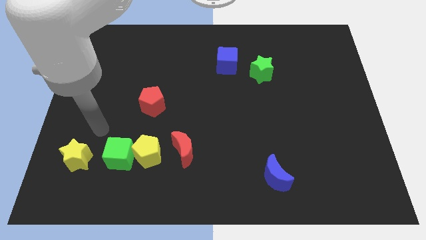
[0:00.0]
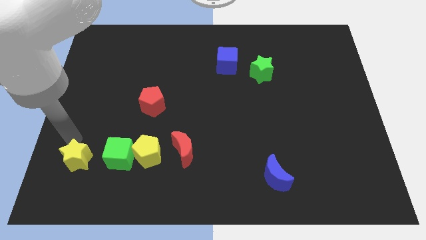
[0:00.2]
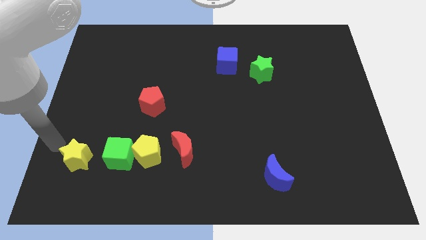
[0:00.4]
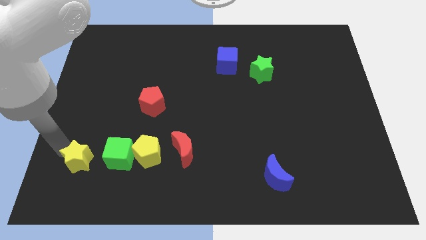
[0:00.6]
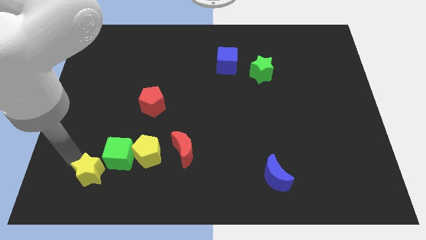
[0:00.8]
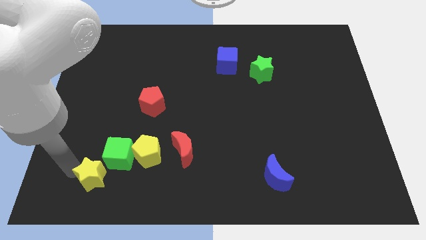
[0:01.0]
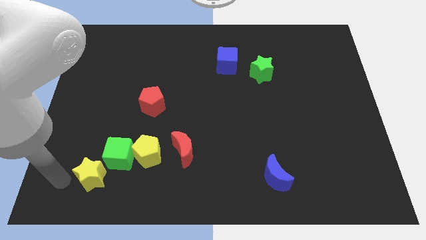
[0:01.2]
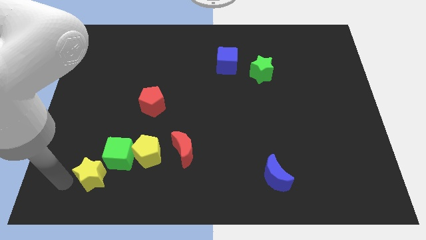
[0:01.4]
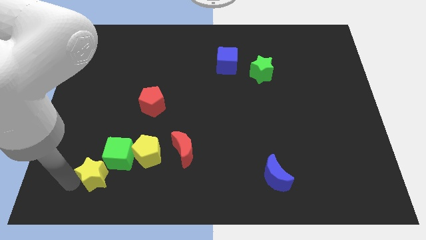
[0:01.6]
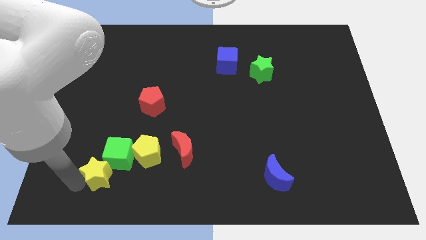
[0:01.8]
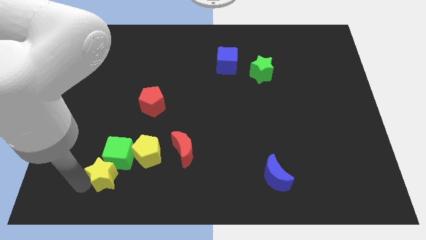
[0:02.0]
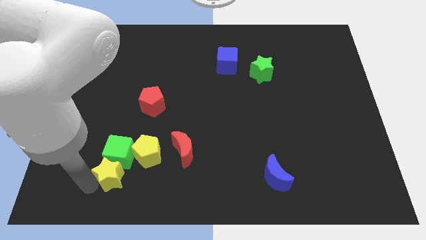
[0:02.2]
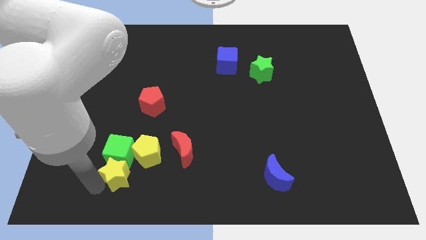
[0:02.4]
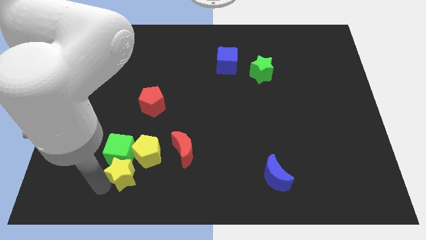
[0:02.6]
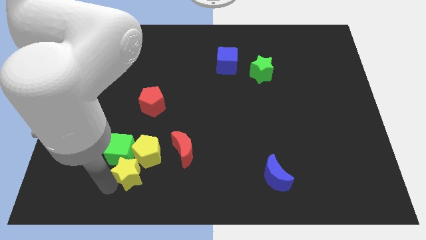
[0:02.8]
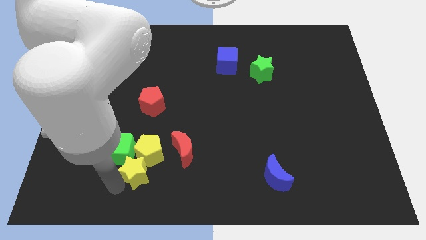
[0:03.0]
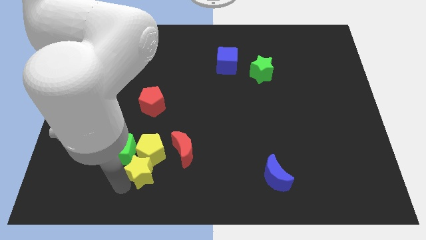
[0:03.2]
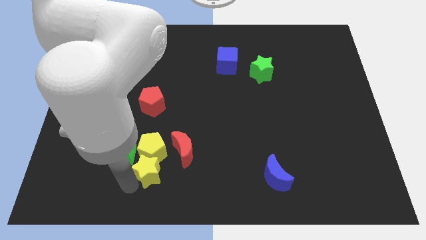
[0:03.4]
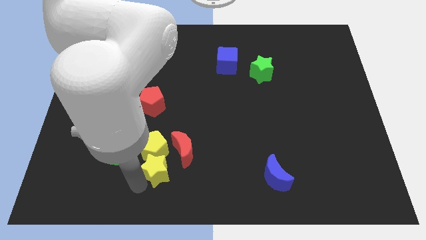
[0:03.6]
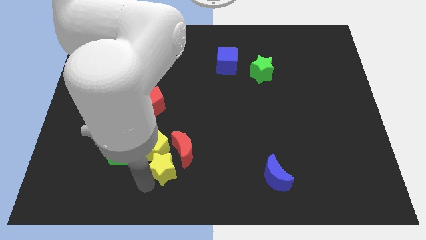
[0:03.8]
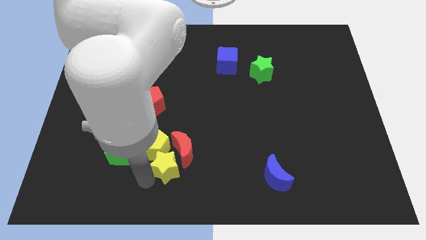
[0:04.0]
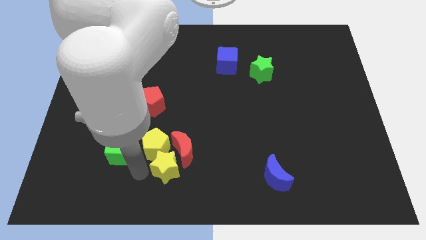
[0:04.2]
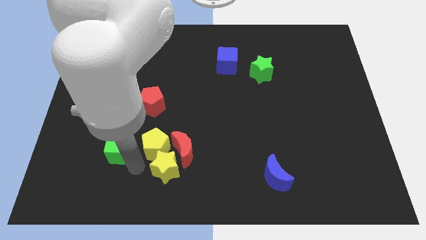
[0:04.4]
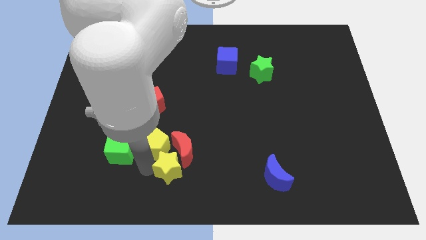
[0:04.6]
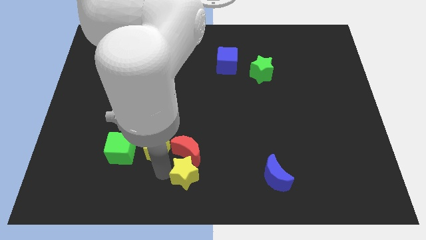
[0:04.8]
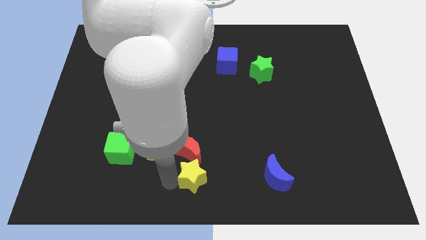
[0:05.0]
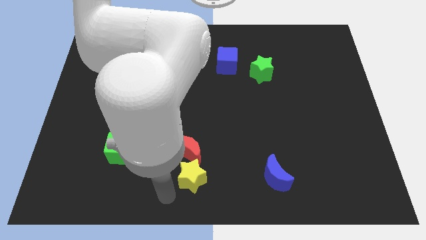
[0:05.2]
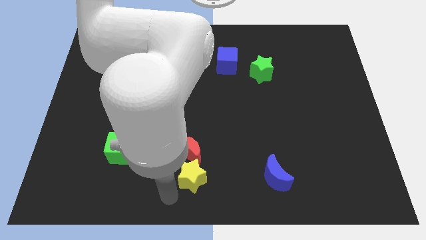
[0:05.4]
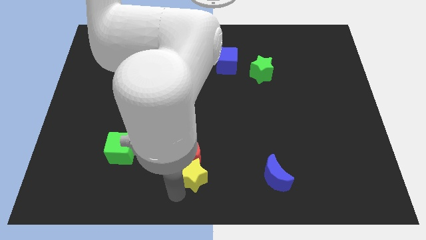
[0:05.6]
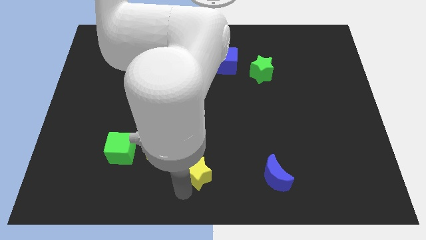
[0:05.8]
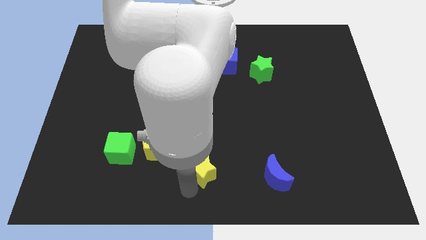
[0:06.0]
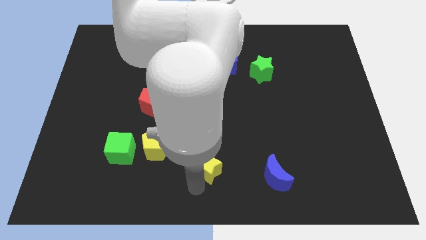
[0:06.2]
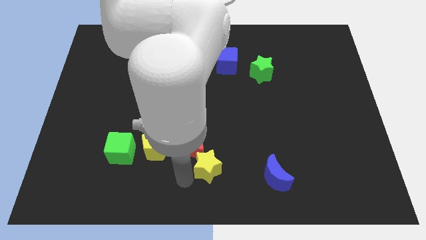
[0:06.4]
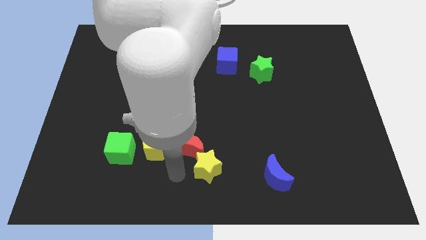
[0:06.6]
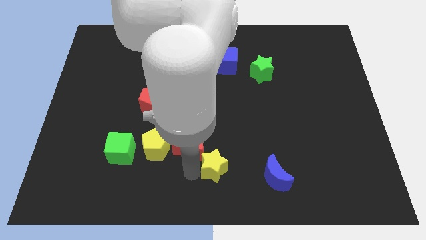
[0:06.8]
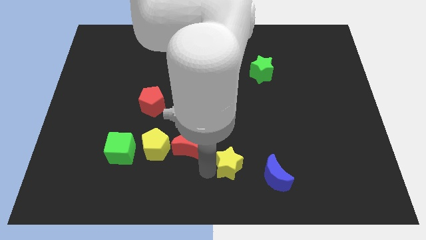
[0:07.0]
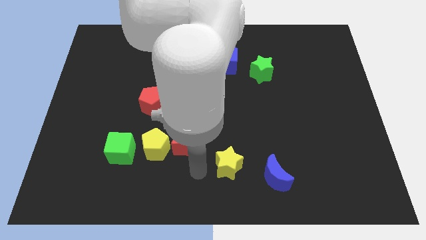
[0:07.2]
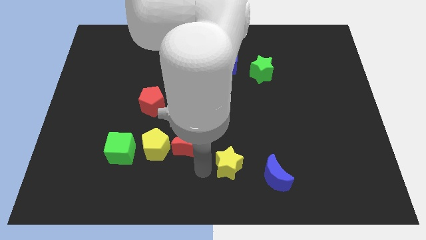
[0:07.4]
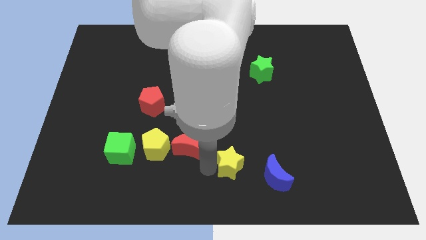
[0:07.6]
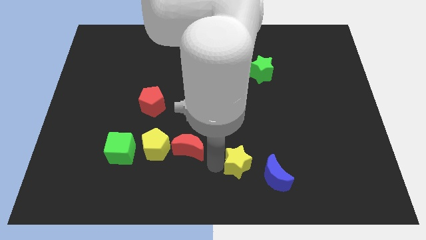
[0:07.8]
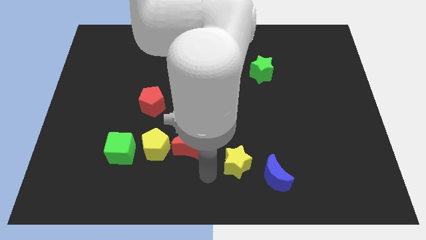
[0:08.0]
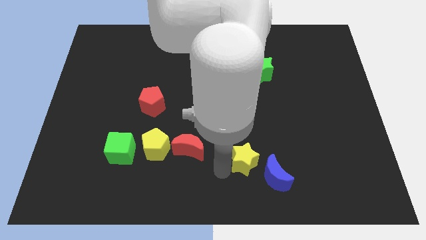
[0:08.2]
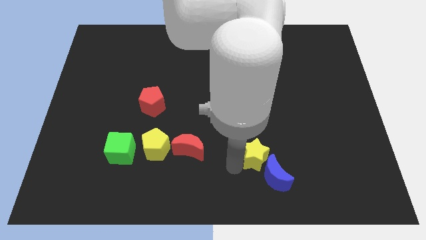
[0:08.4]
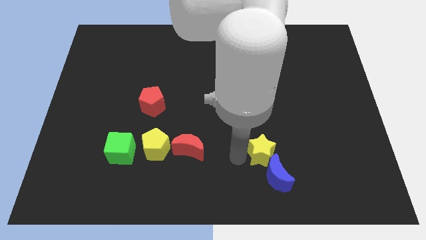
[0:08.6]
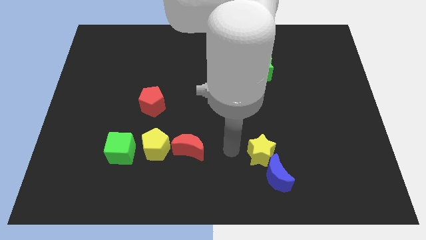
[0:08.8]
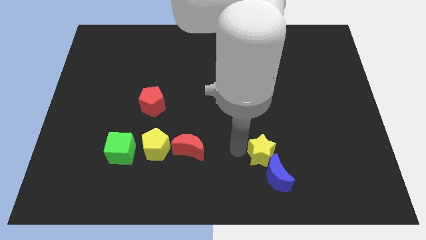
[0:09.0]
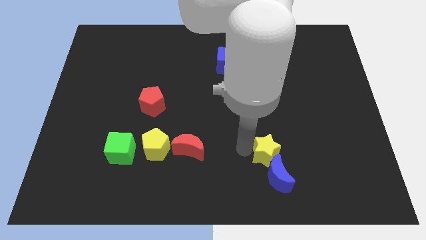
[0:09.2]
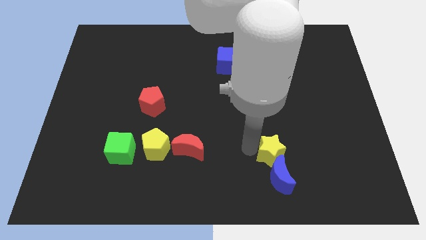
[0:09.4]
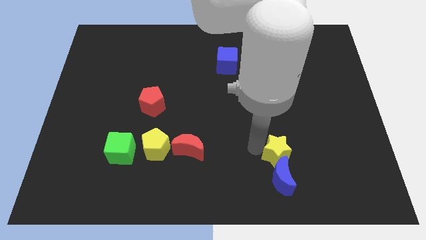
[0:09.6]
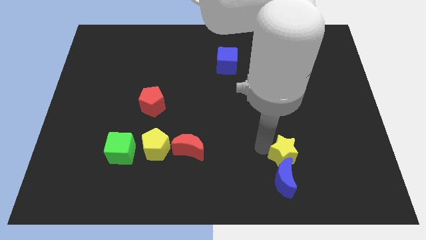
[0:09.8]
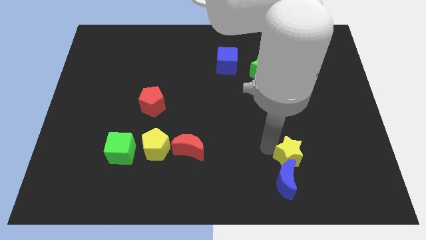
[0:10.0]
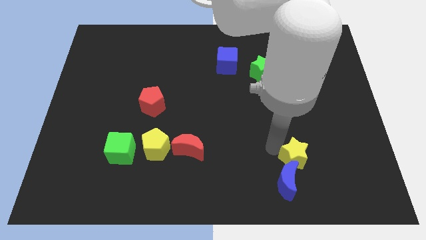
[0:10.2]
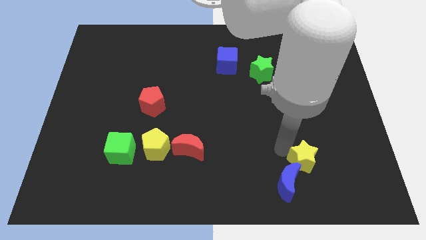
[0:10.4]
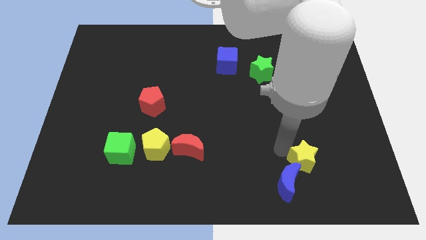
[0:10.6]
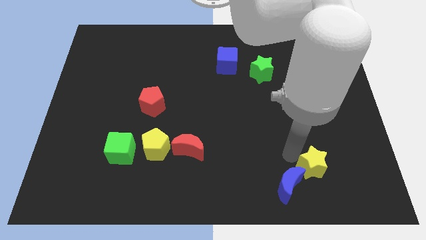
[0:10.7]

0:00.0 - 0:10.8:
slide the yellow star right of the blue moon

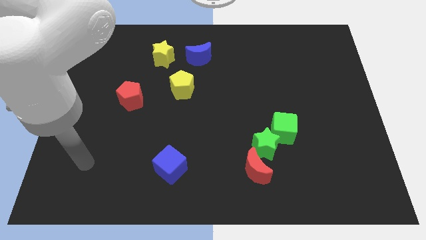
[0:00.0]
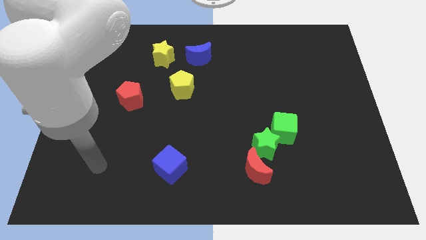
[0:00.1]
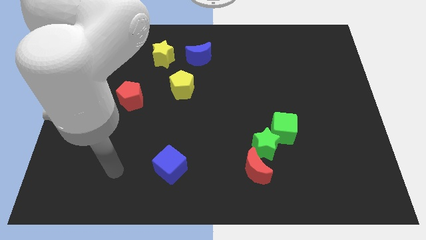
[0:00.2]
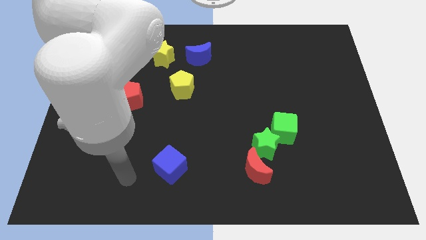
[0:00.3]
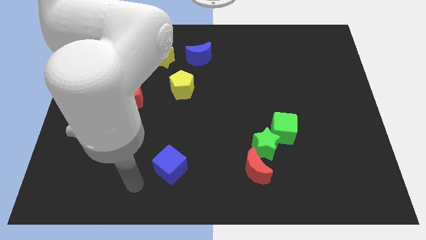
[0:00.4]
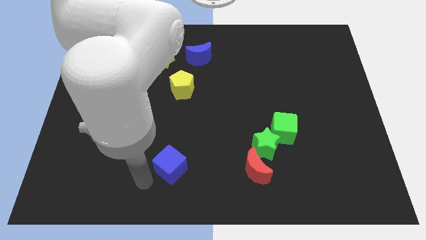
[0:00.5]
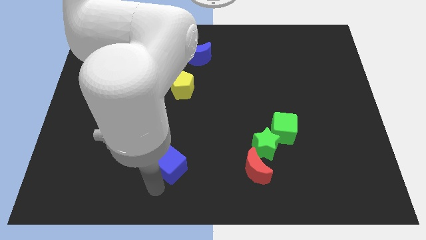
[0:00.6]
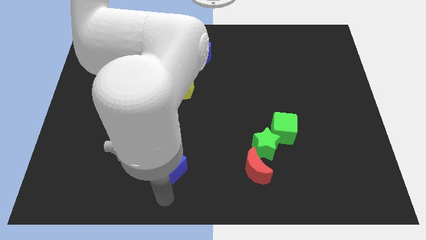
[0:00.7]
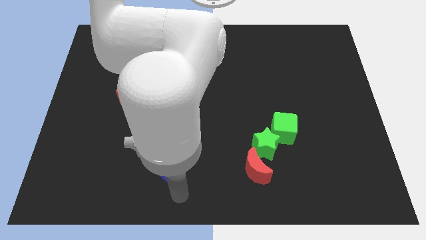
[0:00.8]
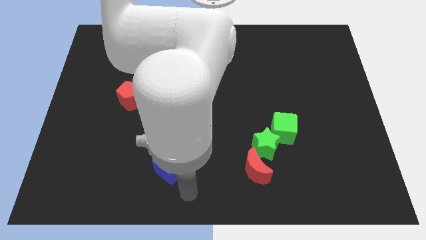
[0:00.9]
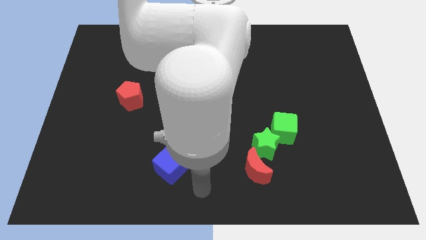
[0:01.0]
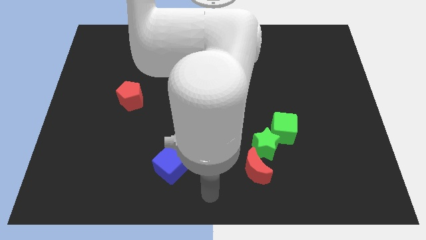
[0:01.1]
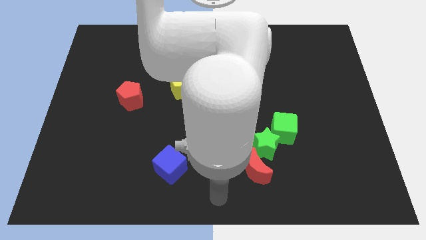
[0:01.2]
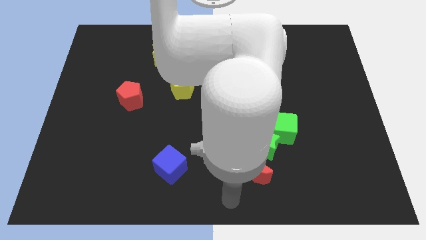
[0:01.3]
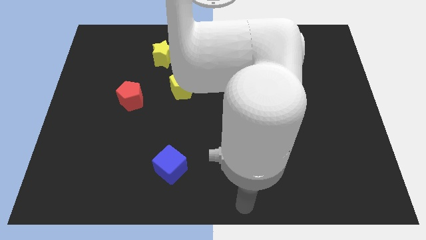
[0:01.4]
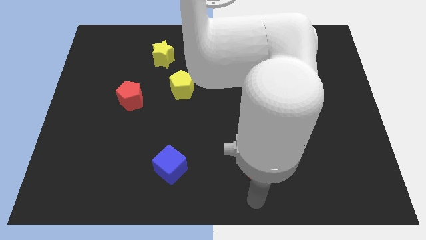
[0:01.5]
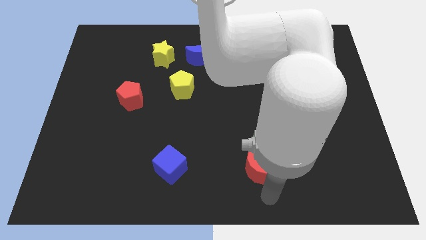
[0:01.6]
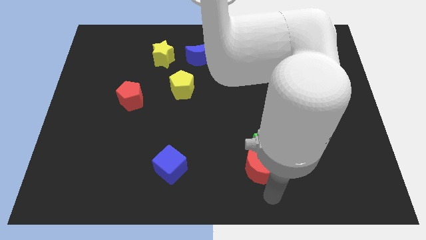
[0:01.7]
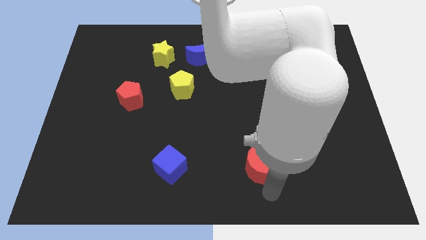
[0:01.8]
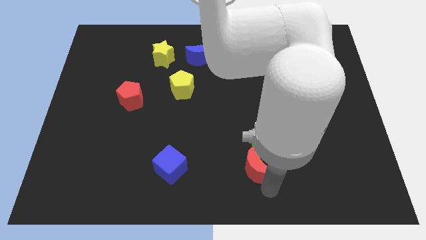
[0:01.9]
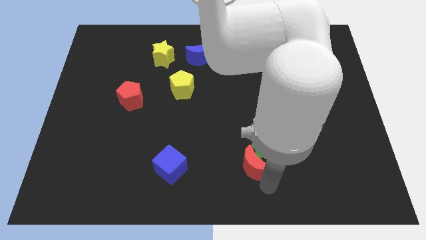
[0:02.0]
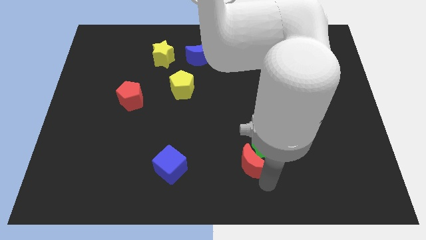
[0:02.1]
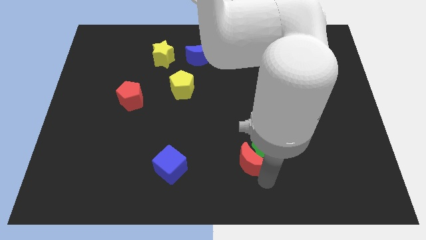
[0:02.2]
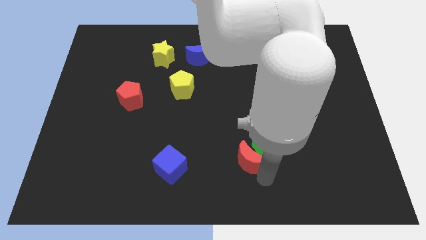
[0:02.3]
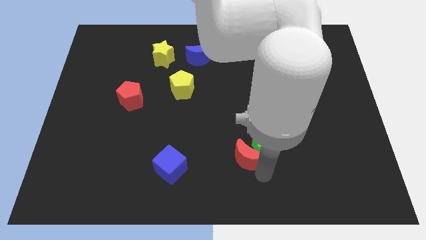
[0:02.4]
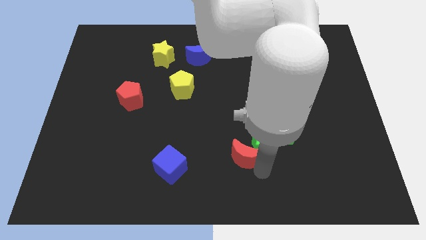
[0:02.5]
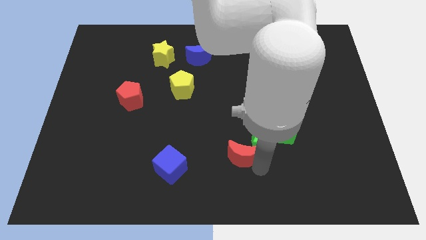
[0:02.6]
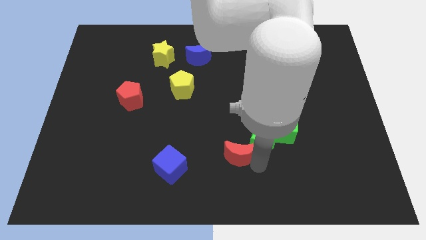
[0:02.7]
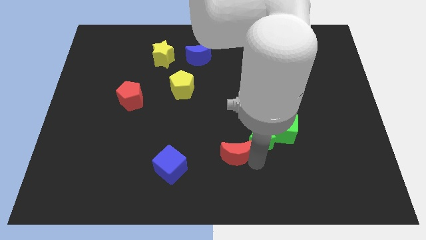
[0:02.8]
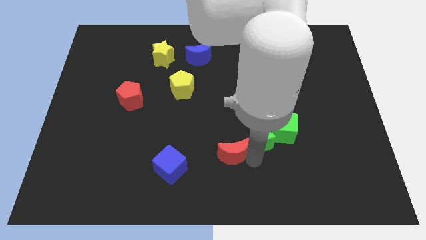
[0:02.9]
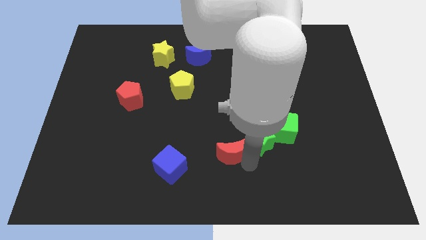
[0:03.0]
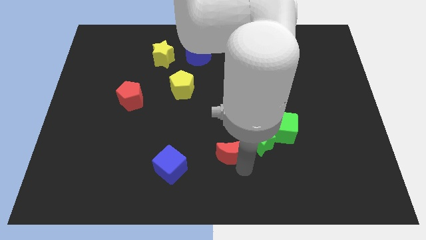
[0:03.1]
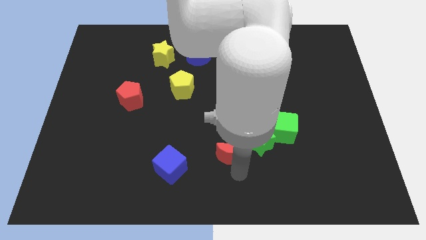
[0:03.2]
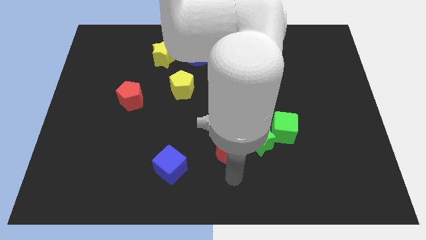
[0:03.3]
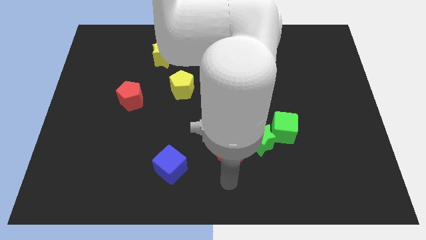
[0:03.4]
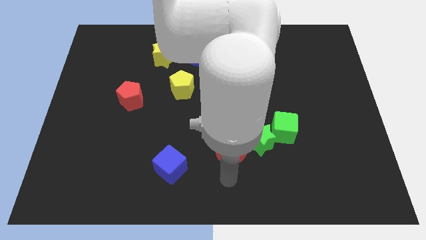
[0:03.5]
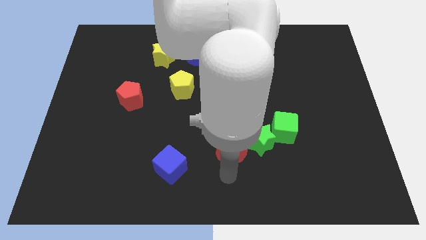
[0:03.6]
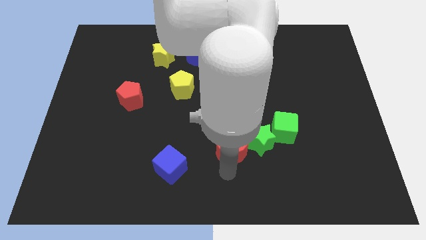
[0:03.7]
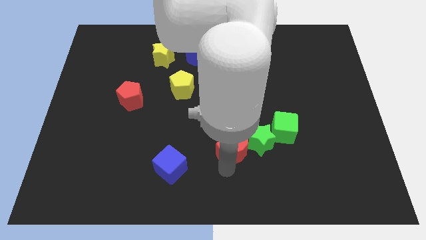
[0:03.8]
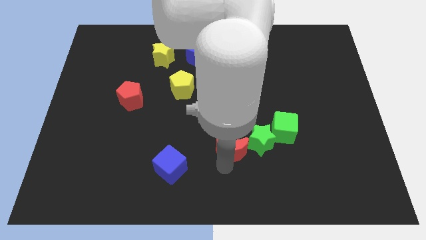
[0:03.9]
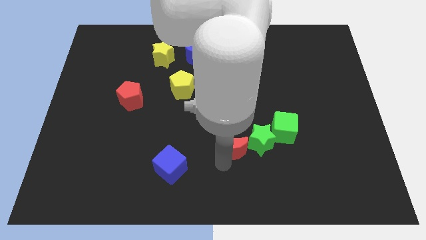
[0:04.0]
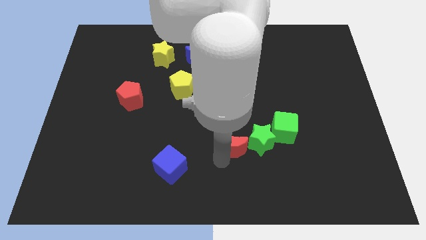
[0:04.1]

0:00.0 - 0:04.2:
push the red moon just left of the green cube
